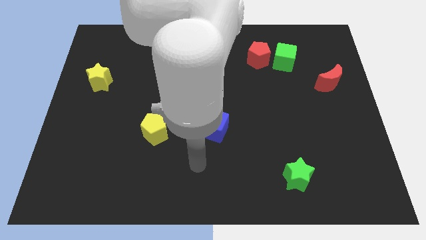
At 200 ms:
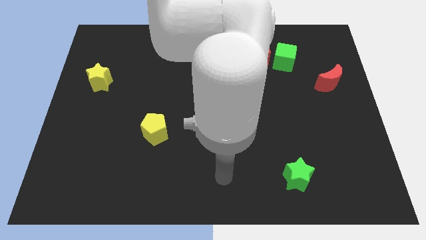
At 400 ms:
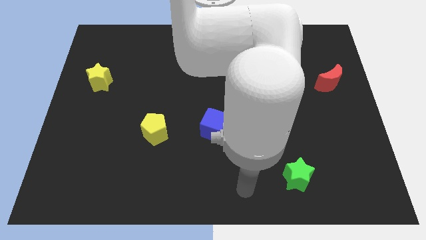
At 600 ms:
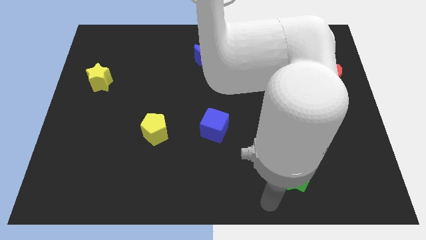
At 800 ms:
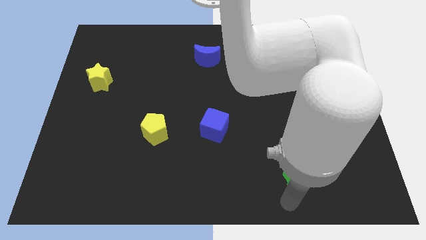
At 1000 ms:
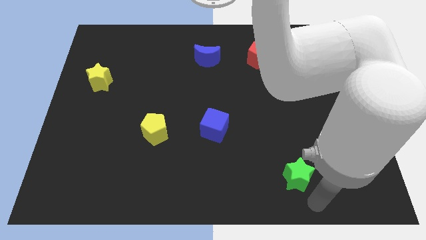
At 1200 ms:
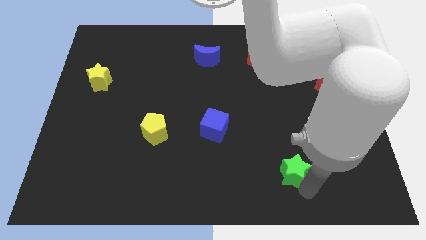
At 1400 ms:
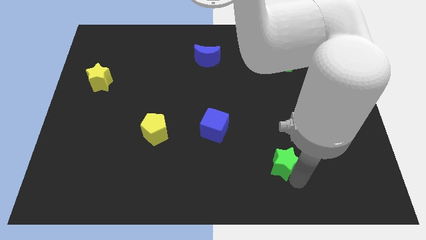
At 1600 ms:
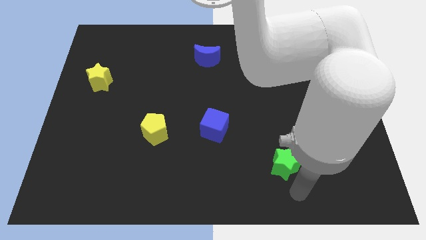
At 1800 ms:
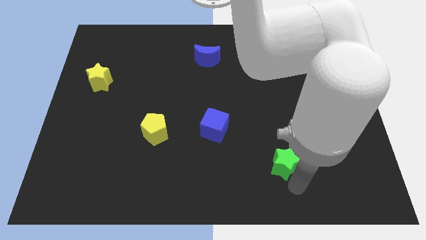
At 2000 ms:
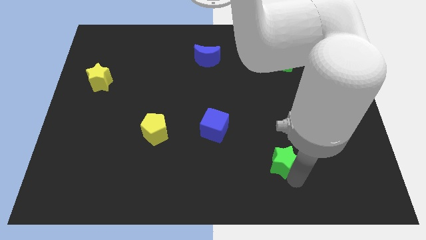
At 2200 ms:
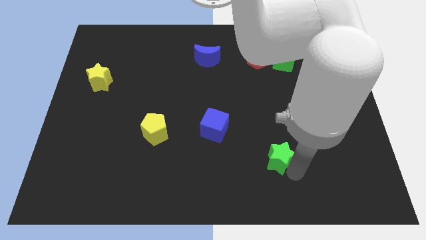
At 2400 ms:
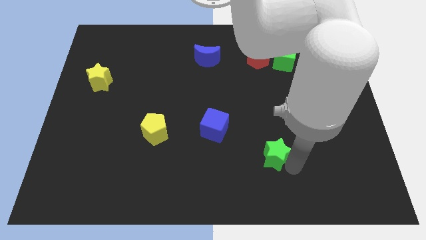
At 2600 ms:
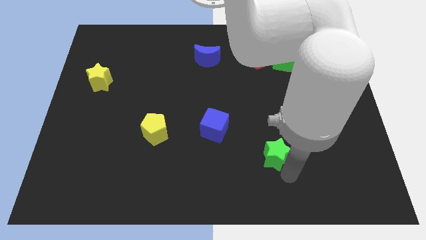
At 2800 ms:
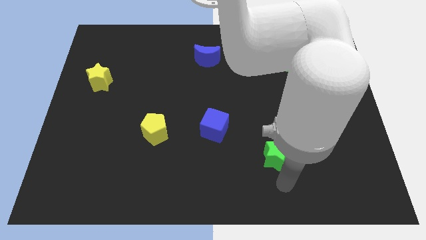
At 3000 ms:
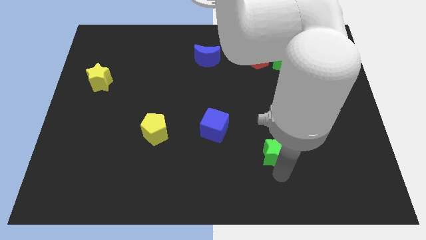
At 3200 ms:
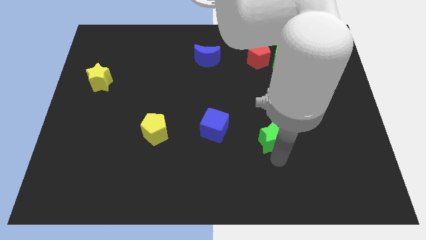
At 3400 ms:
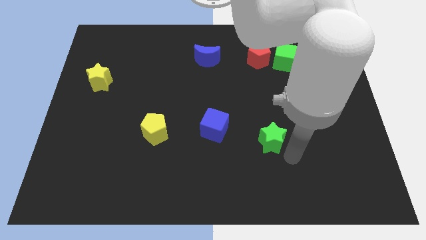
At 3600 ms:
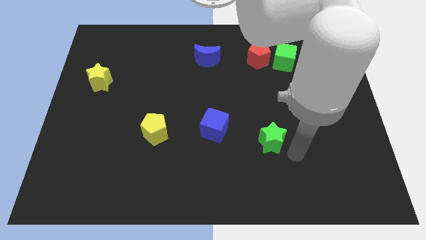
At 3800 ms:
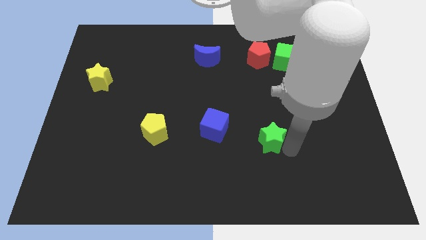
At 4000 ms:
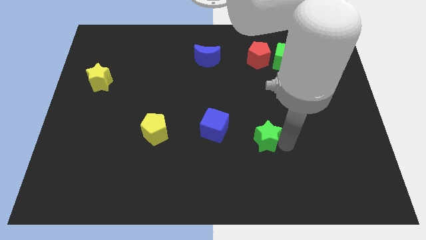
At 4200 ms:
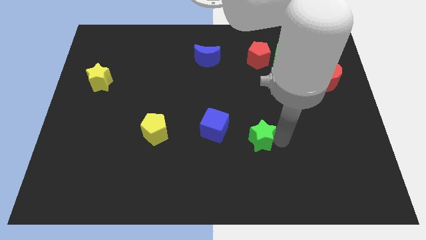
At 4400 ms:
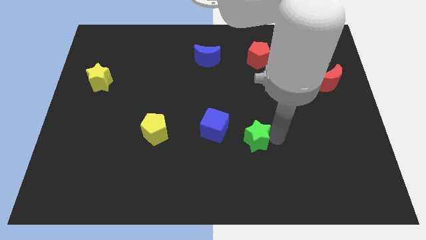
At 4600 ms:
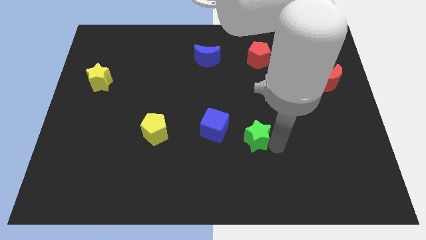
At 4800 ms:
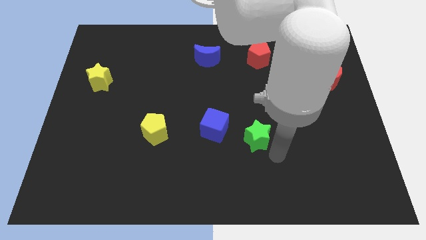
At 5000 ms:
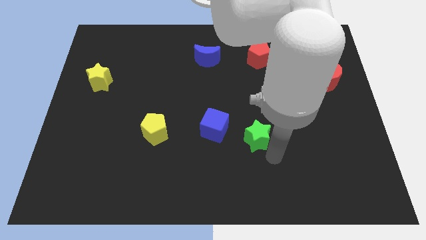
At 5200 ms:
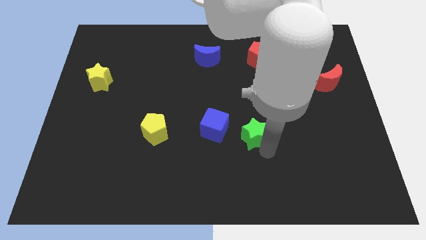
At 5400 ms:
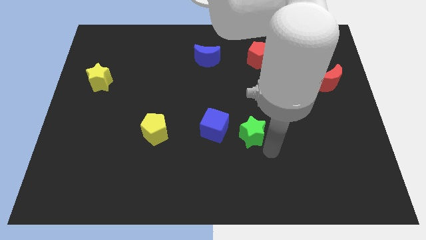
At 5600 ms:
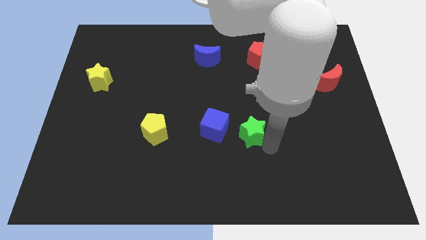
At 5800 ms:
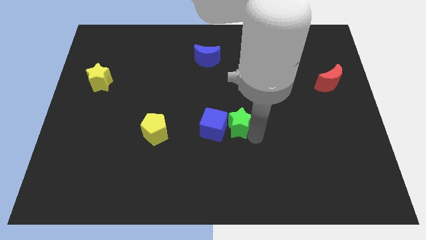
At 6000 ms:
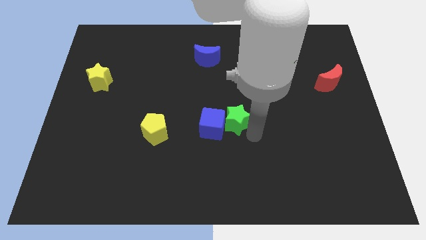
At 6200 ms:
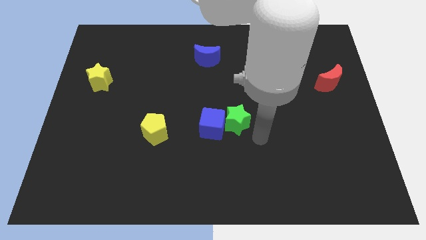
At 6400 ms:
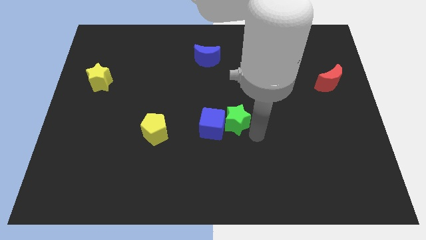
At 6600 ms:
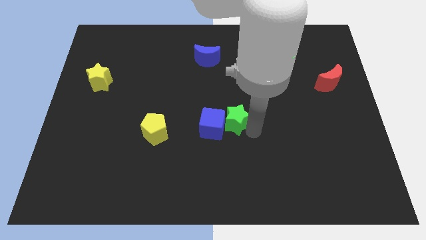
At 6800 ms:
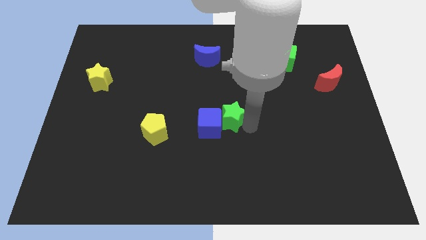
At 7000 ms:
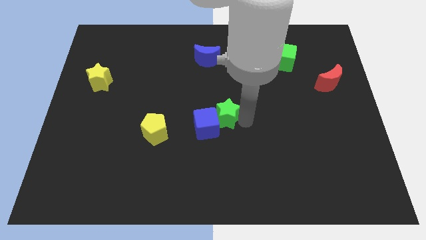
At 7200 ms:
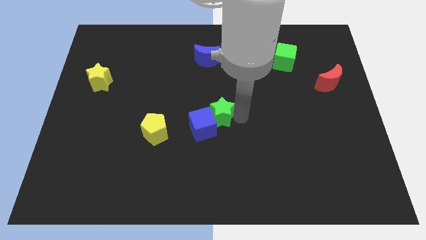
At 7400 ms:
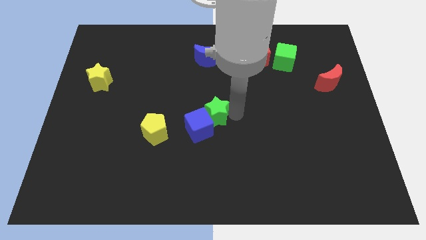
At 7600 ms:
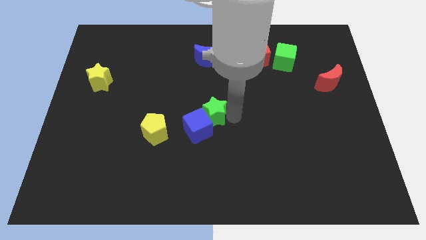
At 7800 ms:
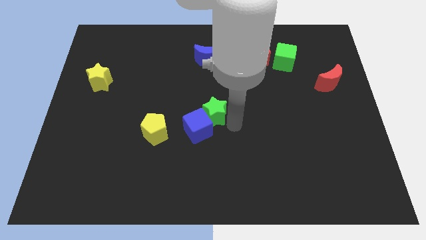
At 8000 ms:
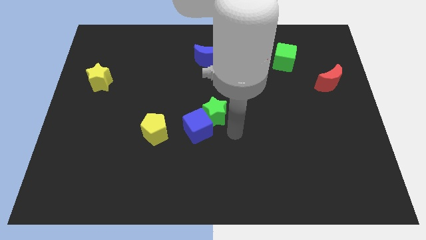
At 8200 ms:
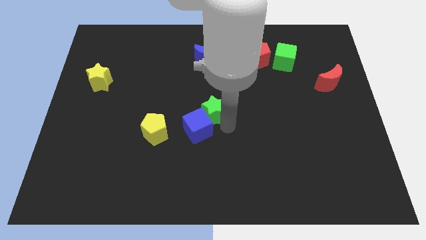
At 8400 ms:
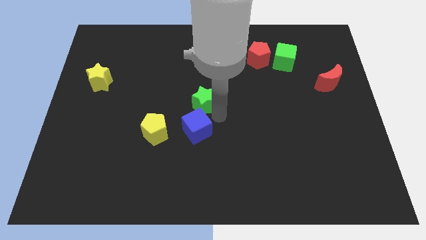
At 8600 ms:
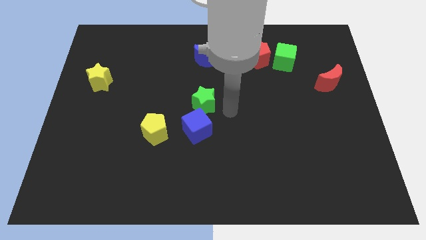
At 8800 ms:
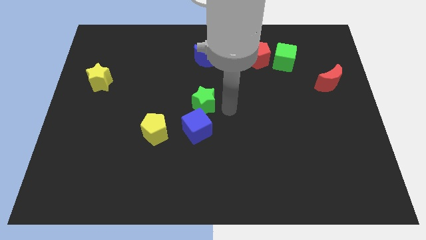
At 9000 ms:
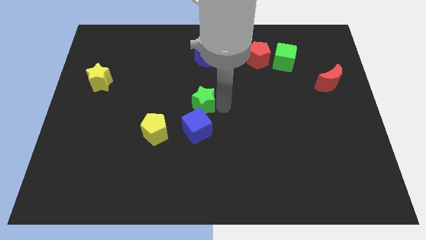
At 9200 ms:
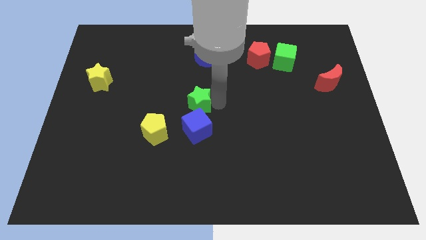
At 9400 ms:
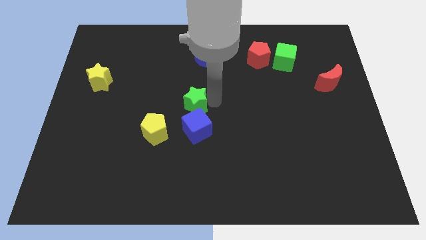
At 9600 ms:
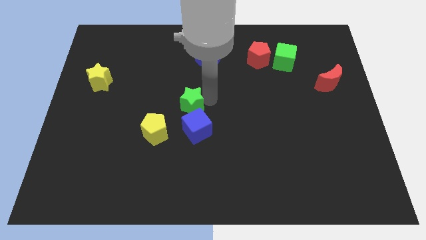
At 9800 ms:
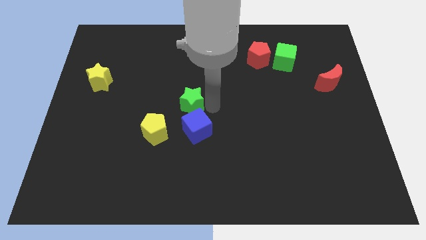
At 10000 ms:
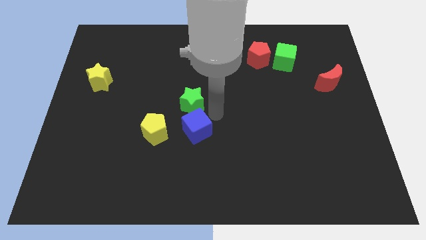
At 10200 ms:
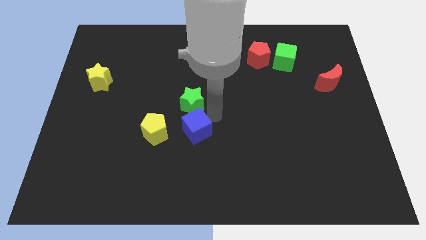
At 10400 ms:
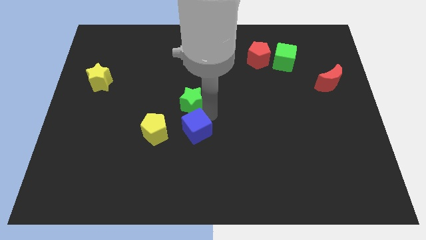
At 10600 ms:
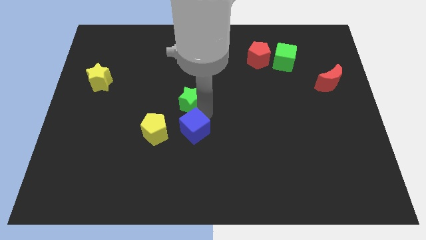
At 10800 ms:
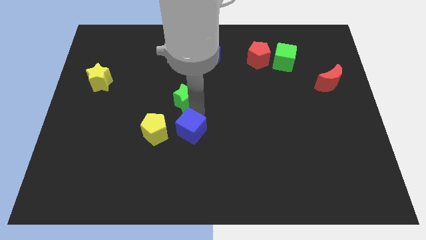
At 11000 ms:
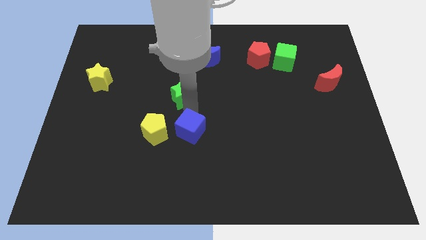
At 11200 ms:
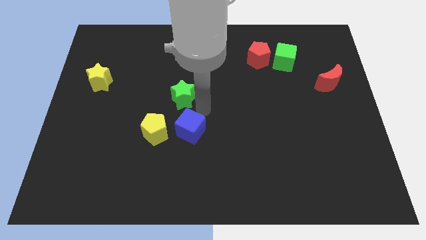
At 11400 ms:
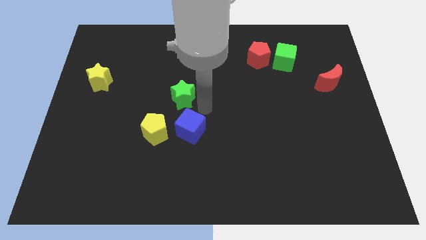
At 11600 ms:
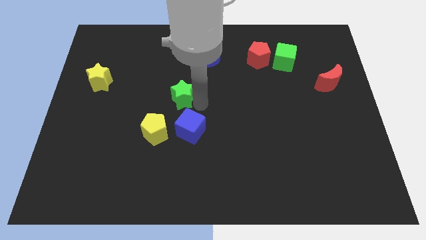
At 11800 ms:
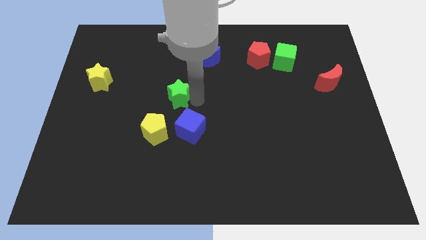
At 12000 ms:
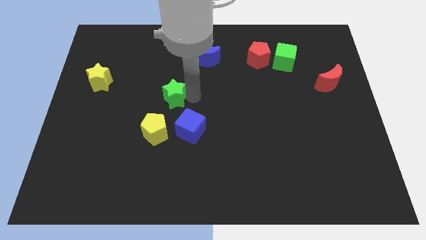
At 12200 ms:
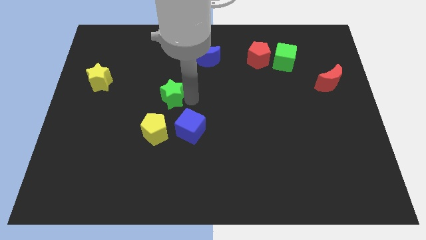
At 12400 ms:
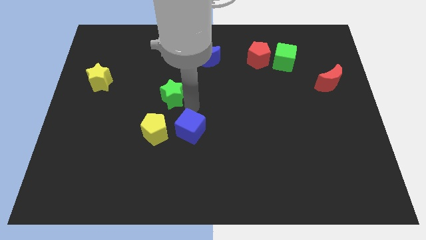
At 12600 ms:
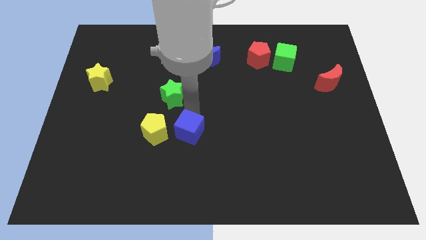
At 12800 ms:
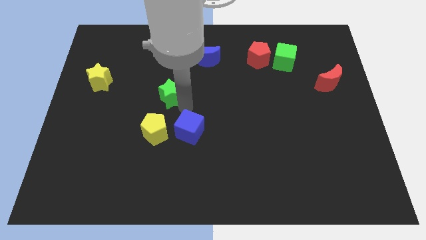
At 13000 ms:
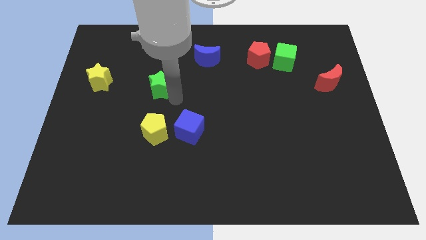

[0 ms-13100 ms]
move the green star right of the yellow star

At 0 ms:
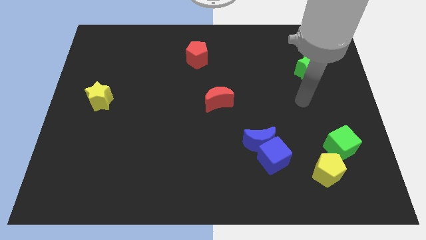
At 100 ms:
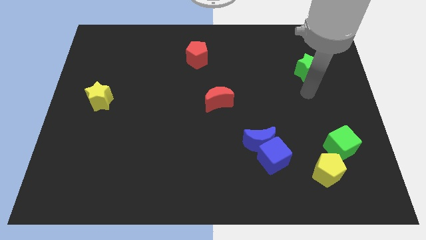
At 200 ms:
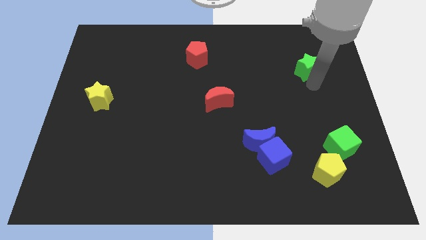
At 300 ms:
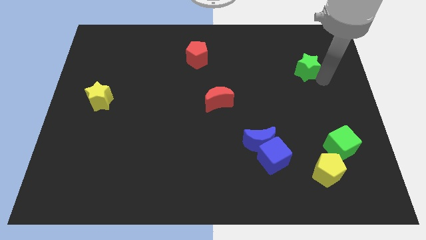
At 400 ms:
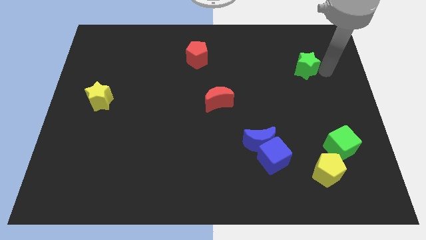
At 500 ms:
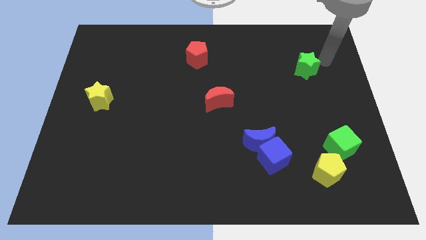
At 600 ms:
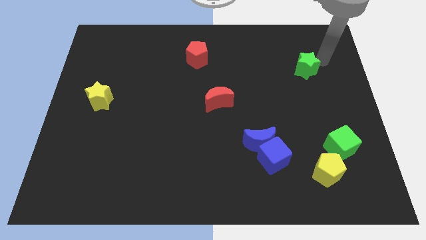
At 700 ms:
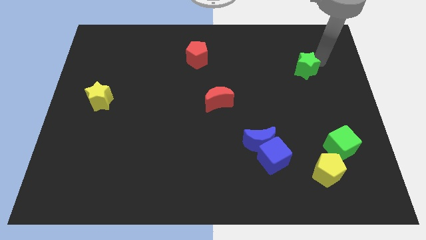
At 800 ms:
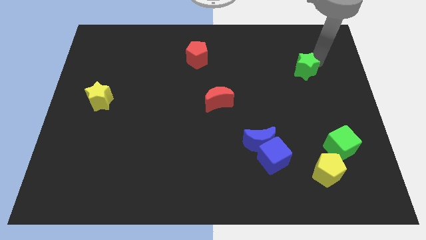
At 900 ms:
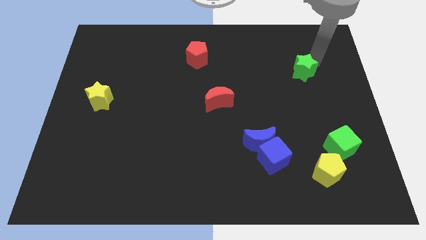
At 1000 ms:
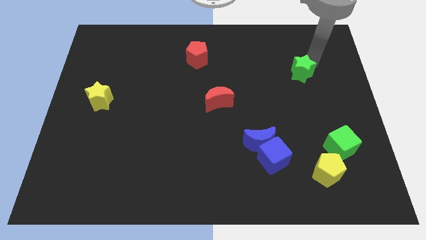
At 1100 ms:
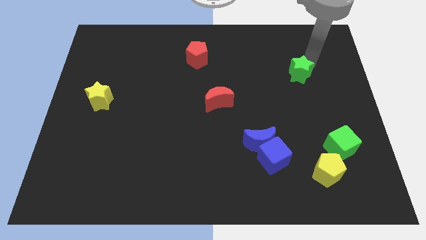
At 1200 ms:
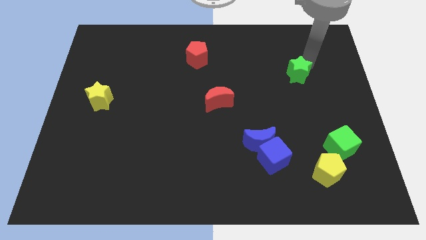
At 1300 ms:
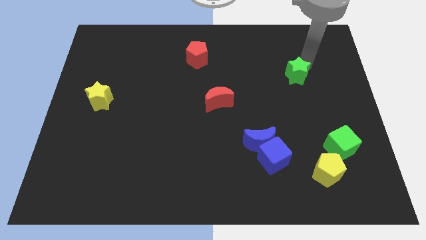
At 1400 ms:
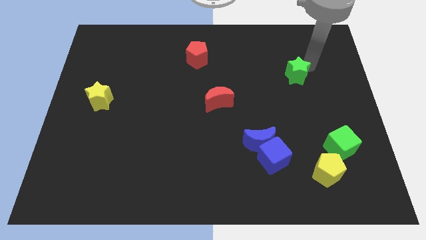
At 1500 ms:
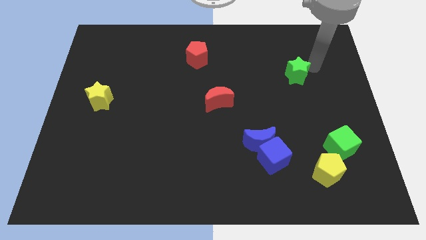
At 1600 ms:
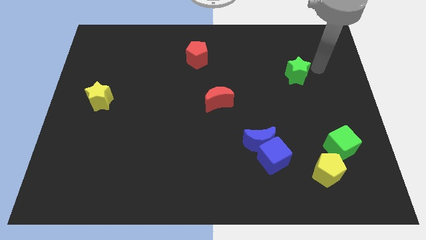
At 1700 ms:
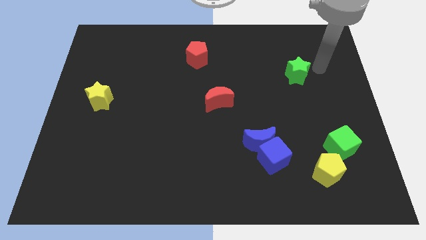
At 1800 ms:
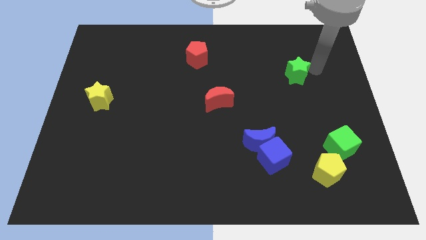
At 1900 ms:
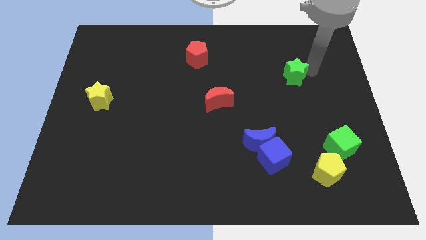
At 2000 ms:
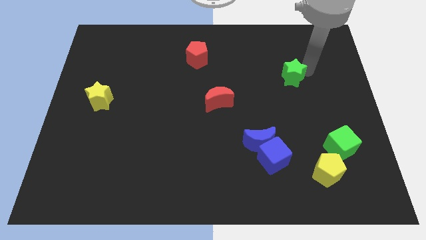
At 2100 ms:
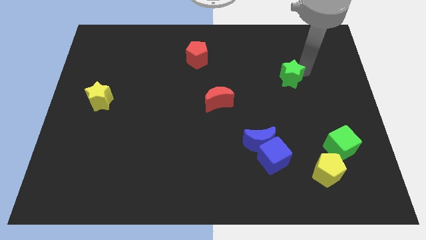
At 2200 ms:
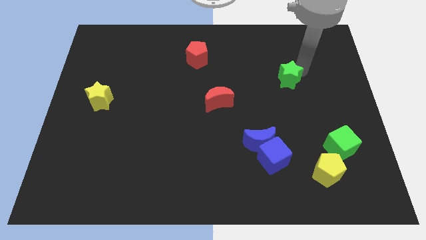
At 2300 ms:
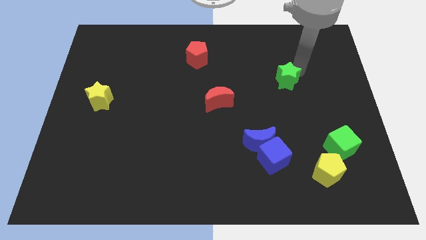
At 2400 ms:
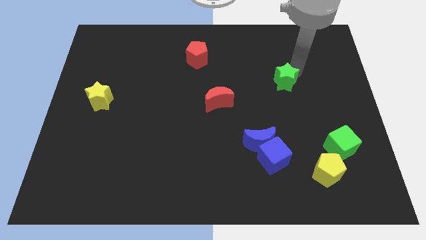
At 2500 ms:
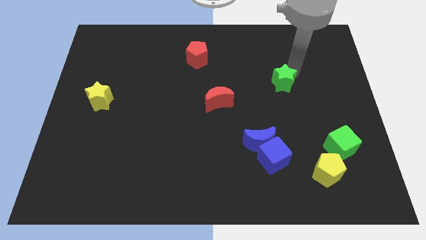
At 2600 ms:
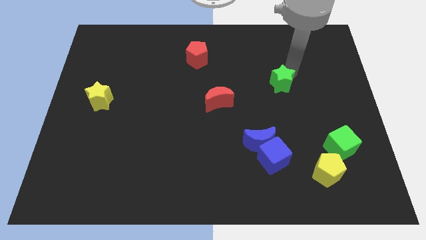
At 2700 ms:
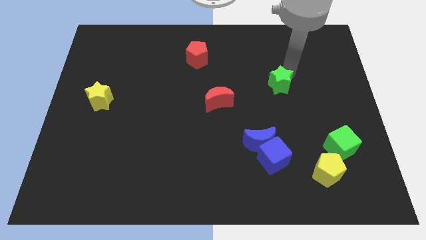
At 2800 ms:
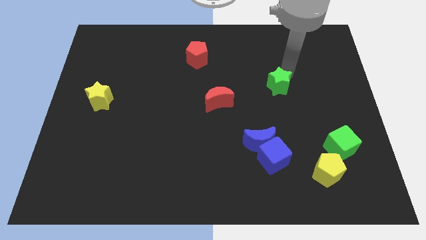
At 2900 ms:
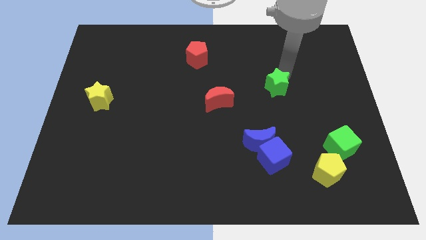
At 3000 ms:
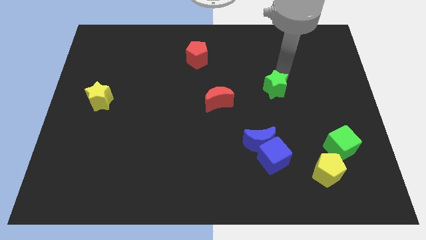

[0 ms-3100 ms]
push the green star just right of the red moon
